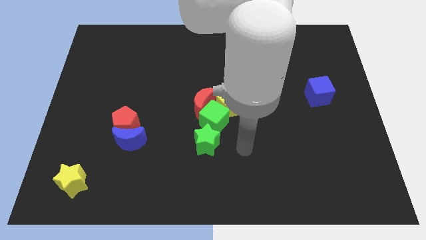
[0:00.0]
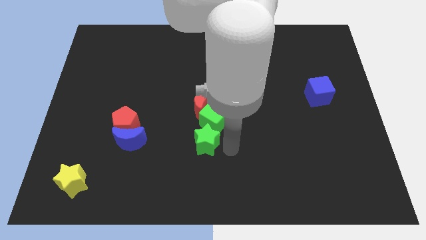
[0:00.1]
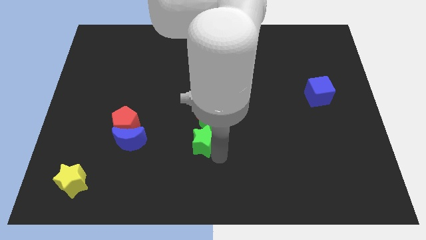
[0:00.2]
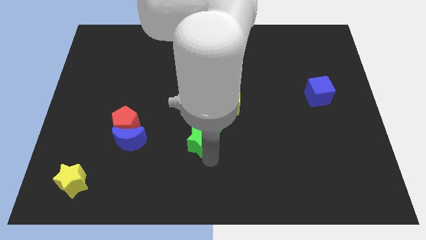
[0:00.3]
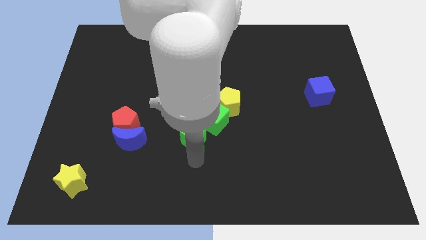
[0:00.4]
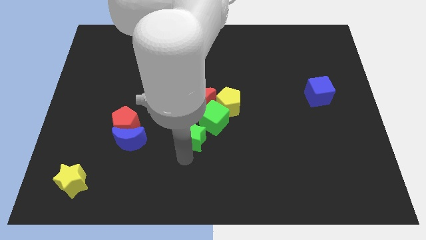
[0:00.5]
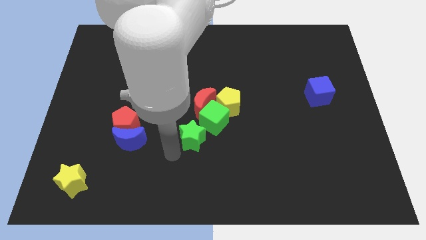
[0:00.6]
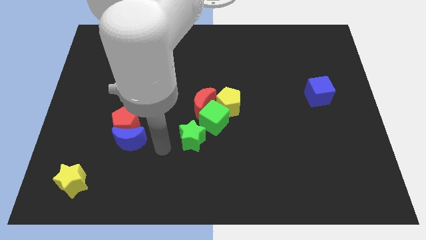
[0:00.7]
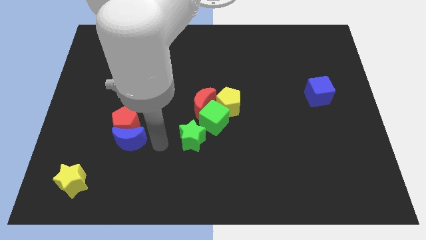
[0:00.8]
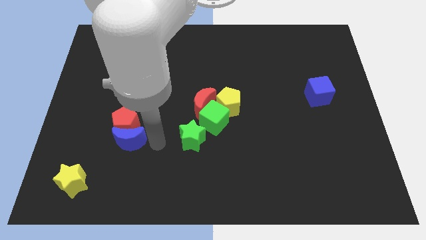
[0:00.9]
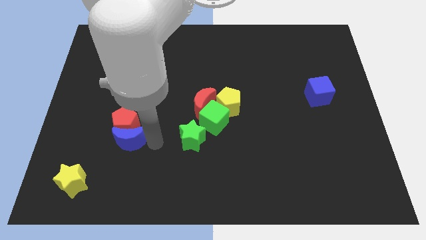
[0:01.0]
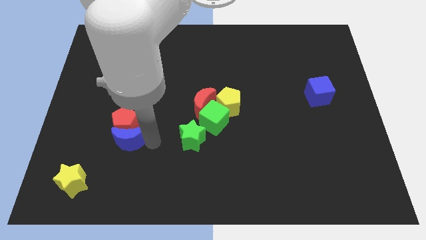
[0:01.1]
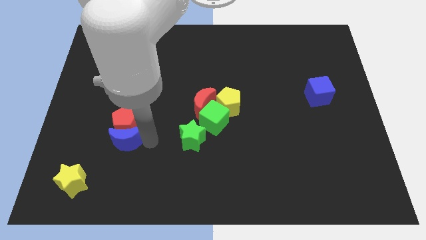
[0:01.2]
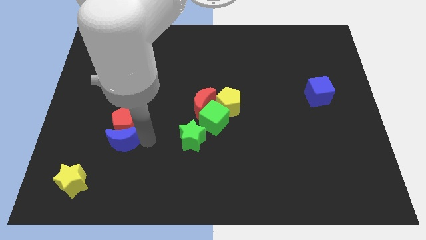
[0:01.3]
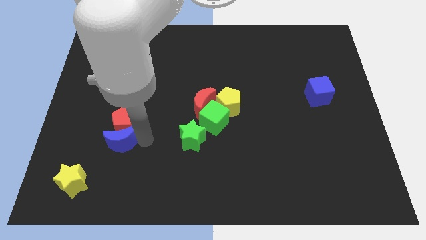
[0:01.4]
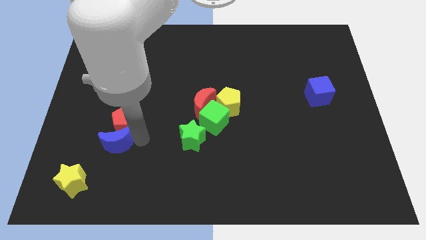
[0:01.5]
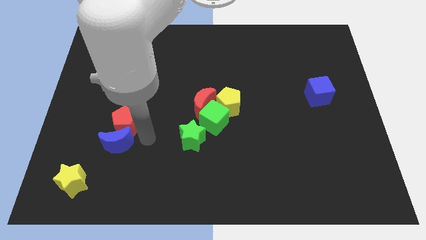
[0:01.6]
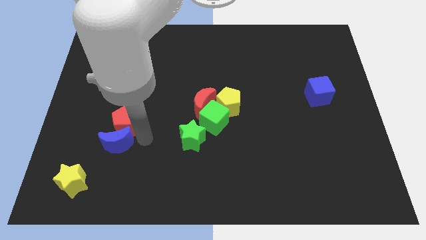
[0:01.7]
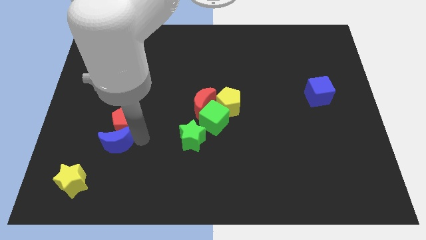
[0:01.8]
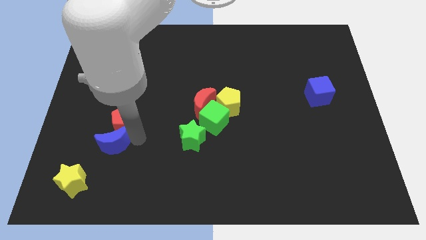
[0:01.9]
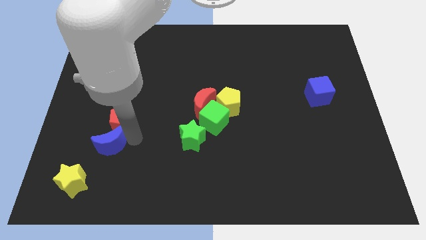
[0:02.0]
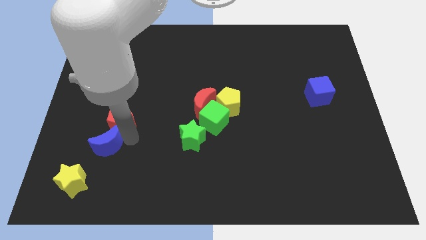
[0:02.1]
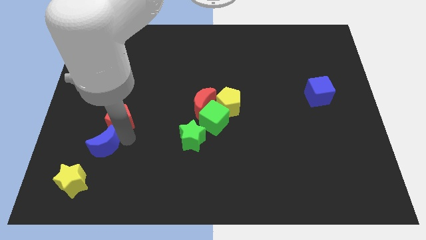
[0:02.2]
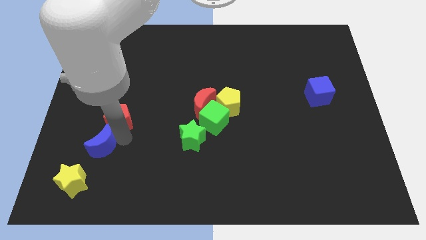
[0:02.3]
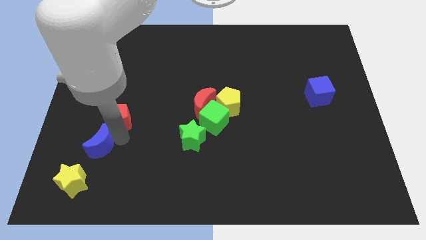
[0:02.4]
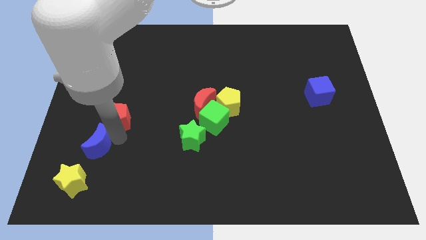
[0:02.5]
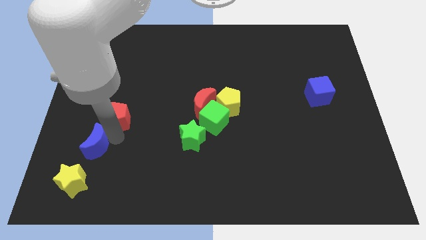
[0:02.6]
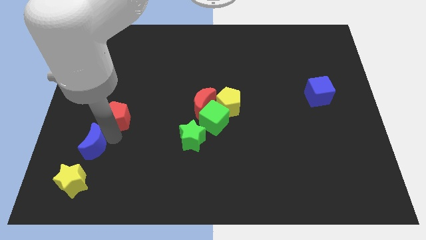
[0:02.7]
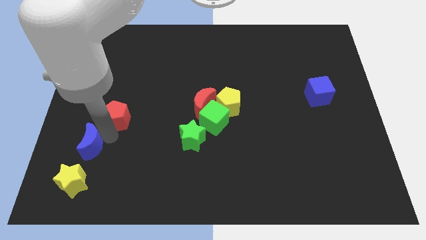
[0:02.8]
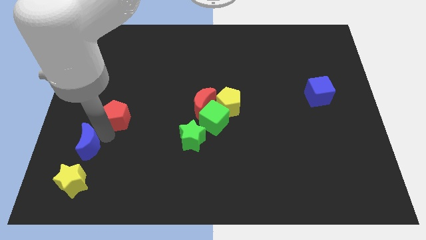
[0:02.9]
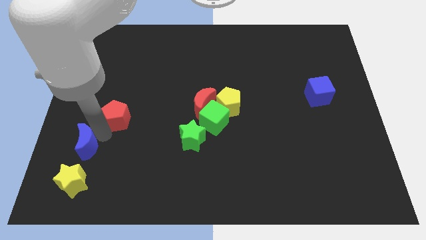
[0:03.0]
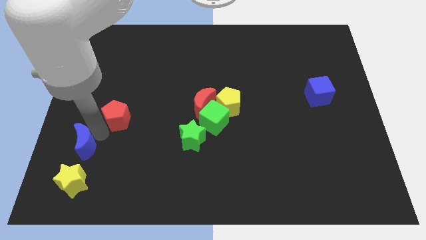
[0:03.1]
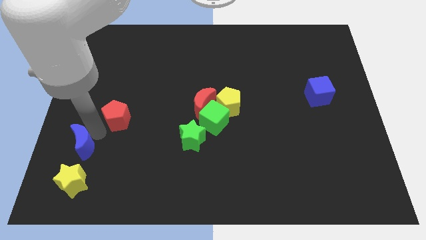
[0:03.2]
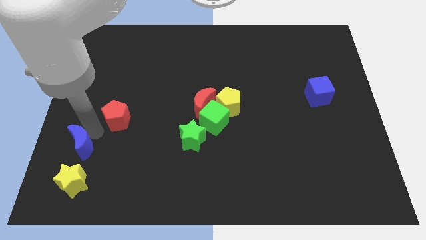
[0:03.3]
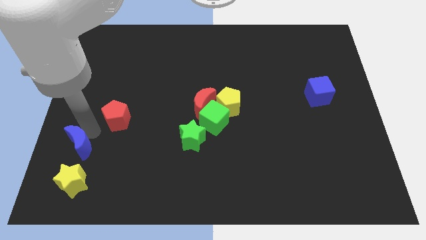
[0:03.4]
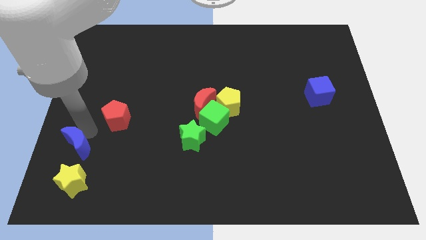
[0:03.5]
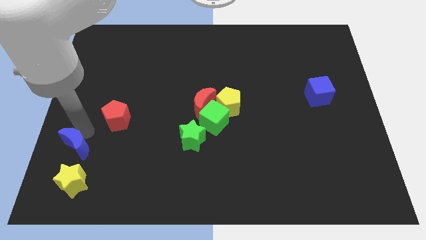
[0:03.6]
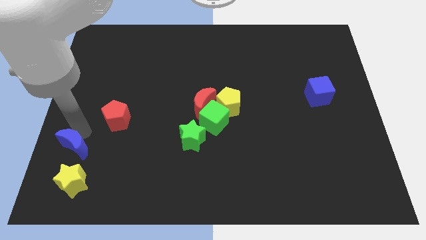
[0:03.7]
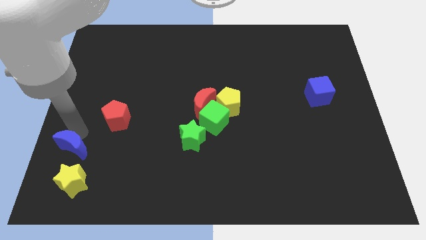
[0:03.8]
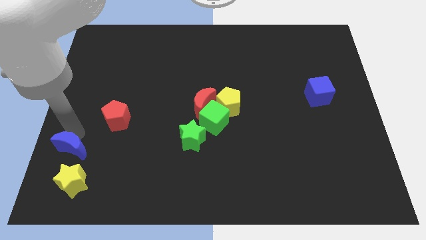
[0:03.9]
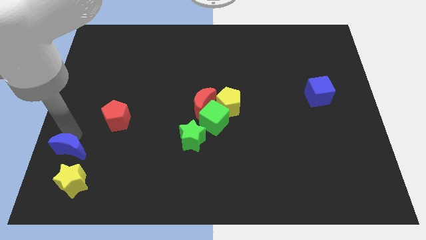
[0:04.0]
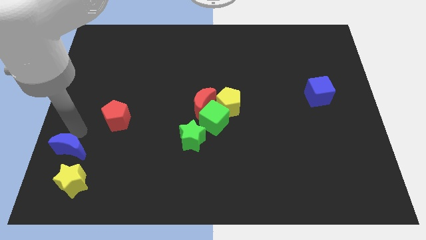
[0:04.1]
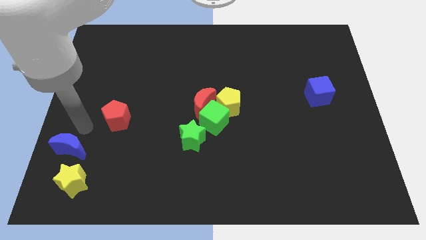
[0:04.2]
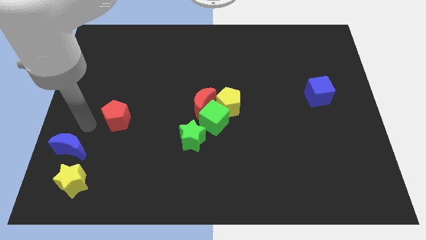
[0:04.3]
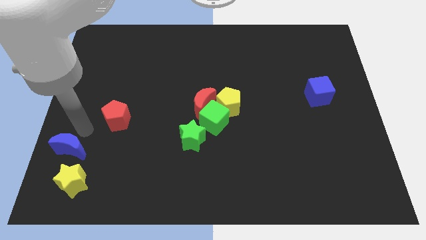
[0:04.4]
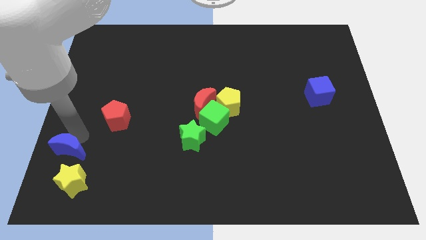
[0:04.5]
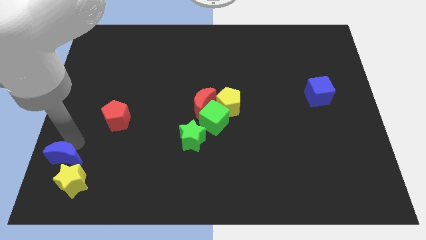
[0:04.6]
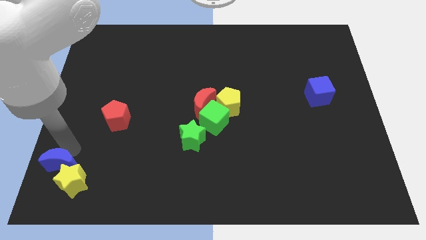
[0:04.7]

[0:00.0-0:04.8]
put the blue moon to the bottom left of the board

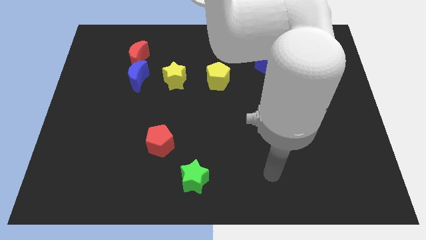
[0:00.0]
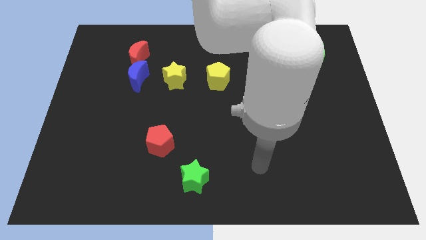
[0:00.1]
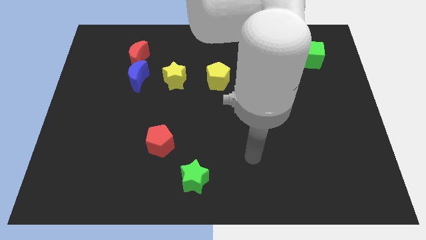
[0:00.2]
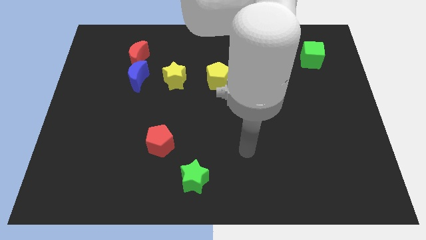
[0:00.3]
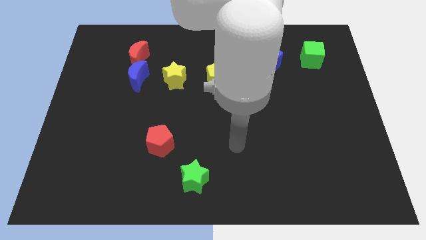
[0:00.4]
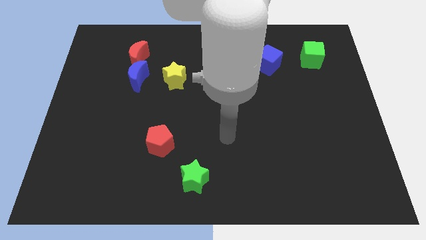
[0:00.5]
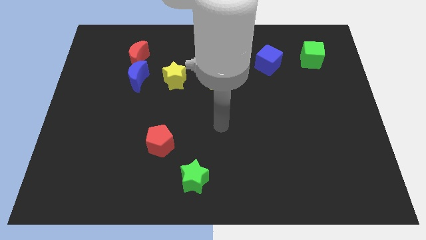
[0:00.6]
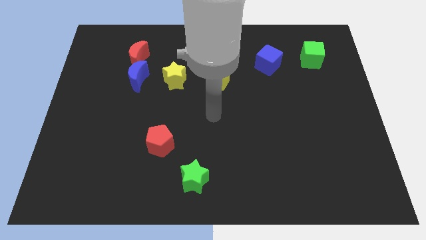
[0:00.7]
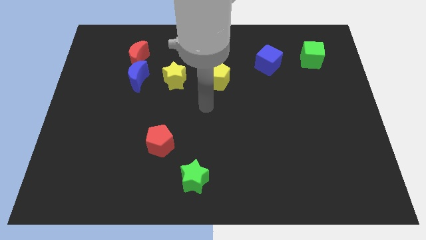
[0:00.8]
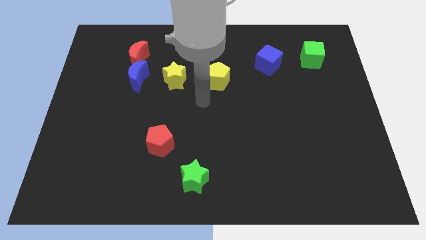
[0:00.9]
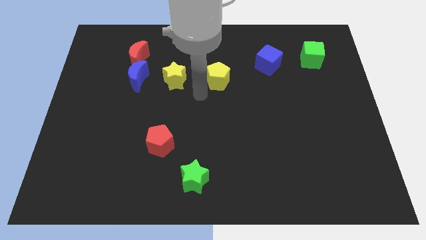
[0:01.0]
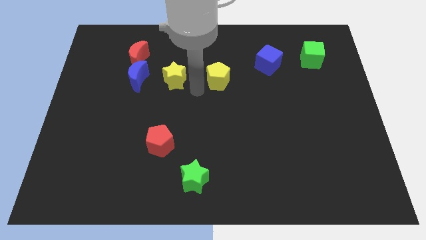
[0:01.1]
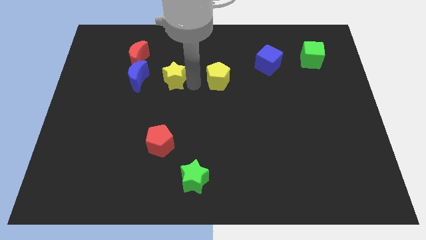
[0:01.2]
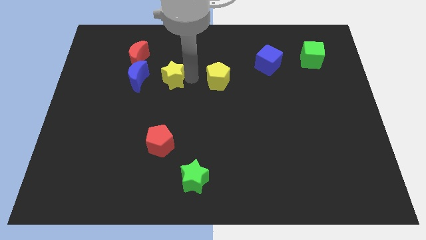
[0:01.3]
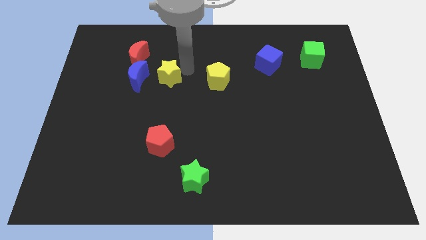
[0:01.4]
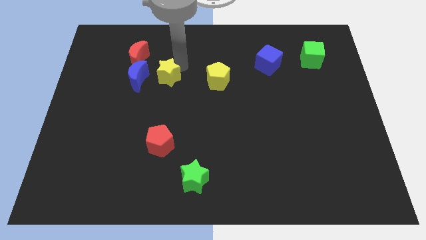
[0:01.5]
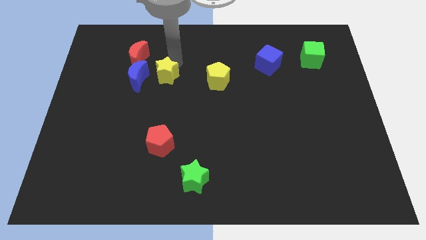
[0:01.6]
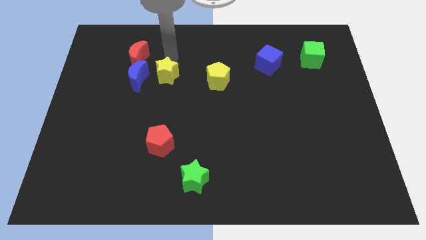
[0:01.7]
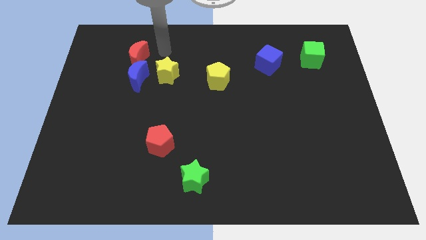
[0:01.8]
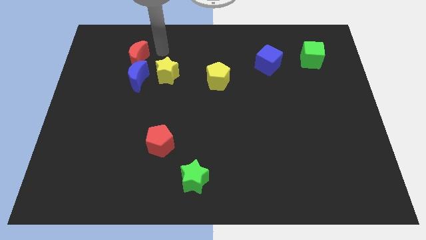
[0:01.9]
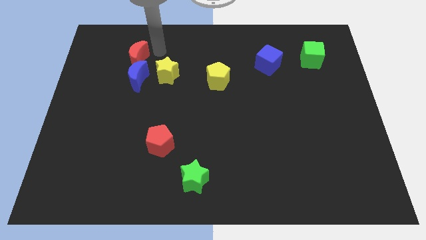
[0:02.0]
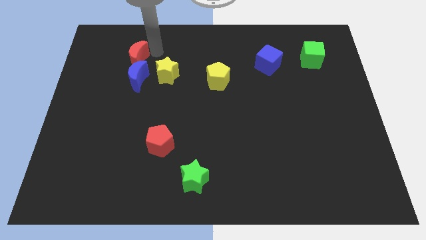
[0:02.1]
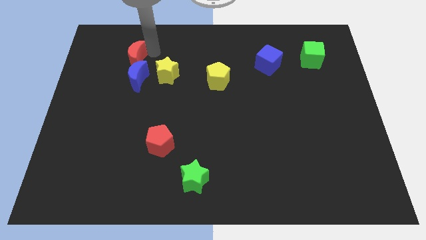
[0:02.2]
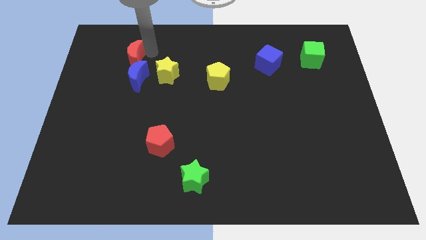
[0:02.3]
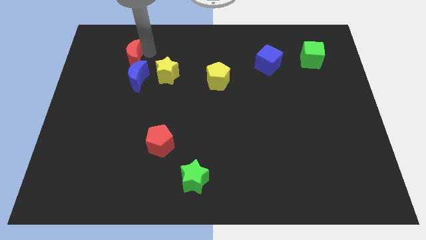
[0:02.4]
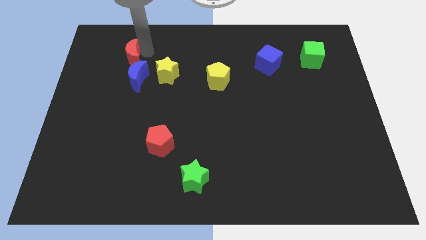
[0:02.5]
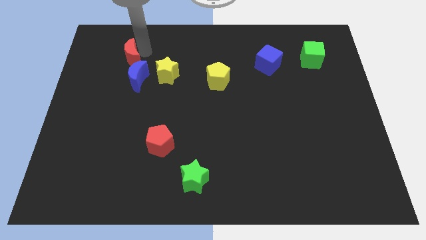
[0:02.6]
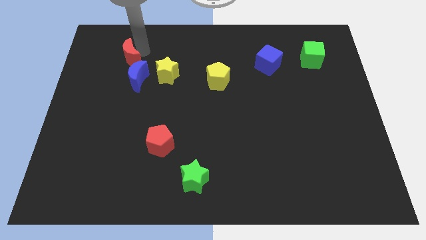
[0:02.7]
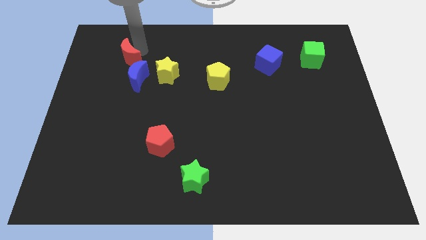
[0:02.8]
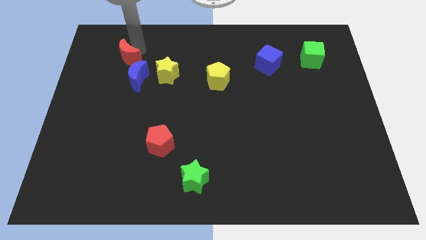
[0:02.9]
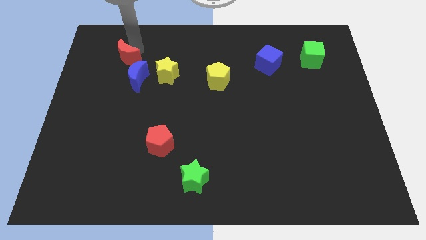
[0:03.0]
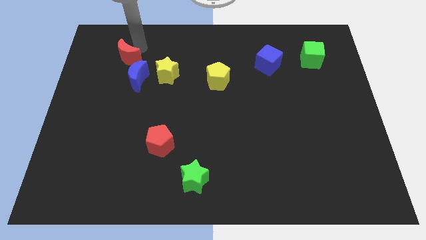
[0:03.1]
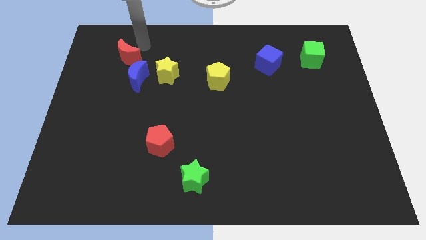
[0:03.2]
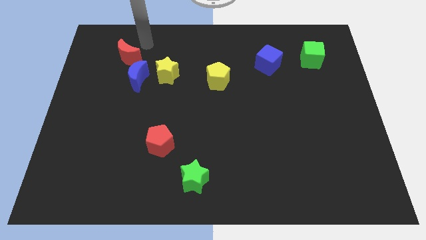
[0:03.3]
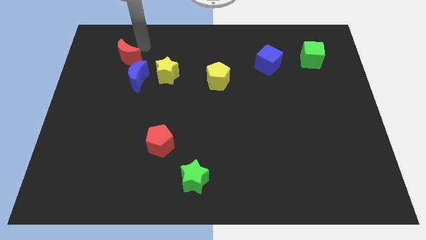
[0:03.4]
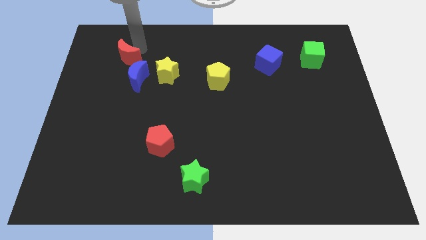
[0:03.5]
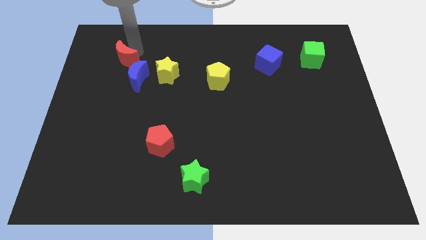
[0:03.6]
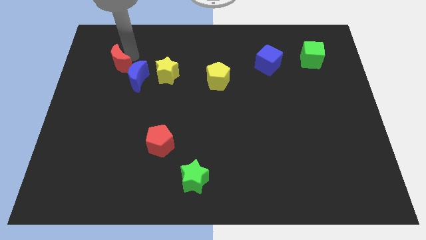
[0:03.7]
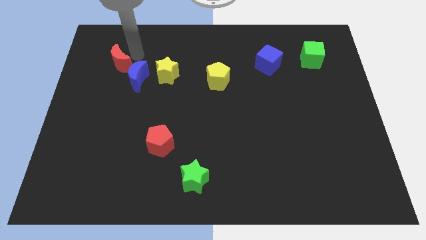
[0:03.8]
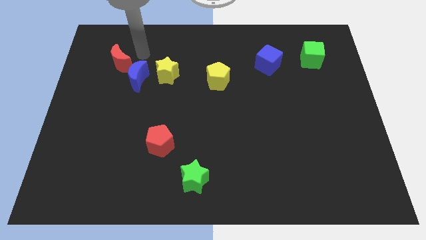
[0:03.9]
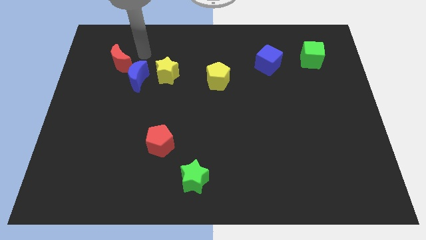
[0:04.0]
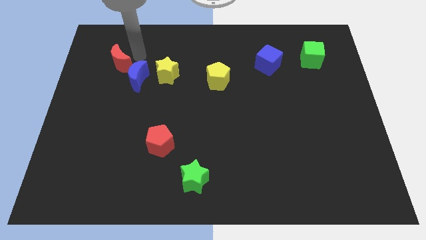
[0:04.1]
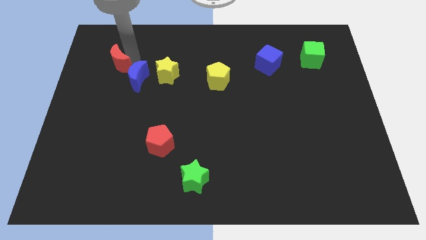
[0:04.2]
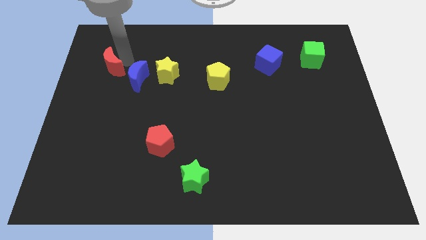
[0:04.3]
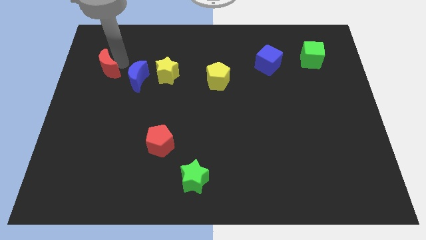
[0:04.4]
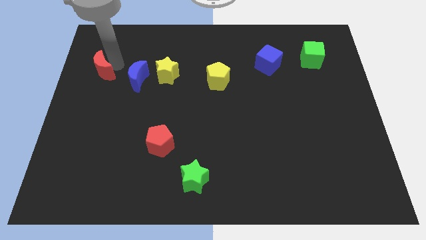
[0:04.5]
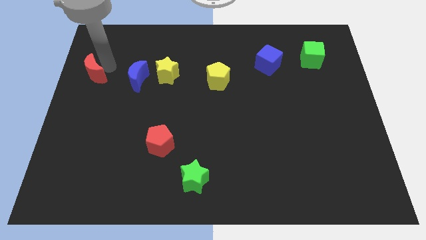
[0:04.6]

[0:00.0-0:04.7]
slide the red moon to the center left
